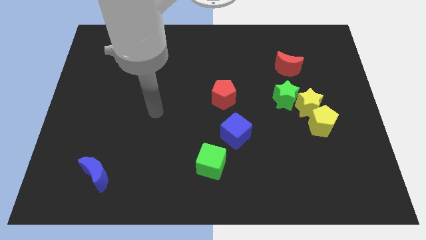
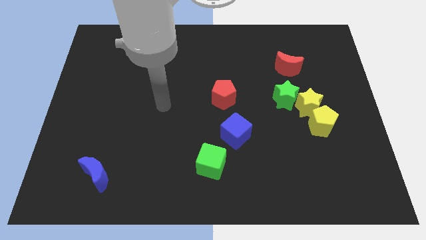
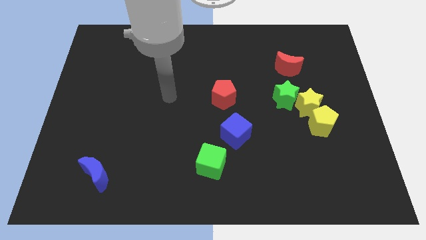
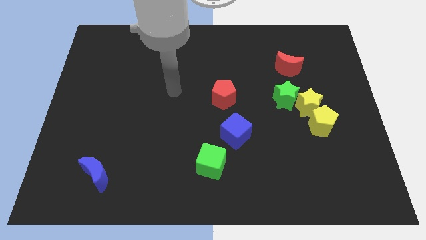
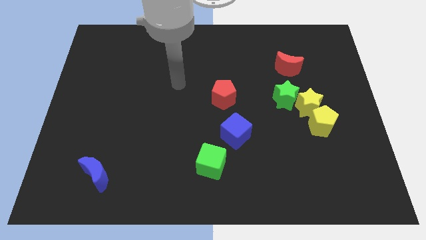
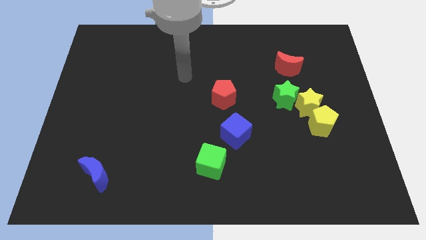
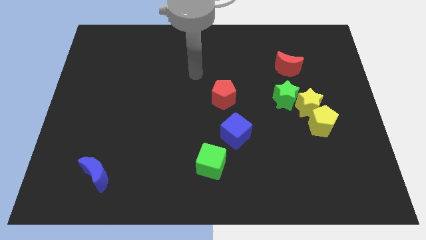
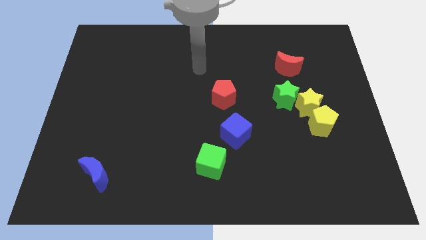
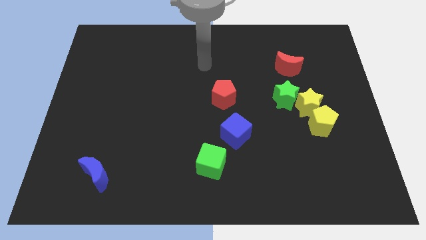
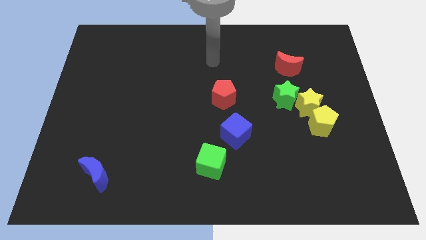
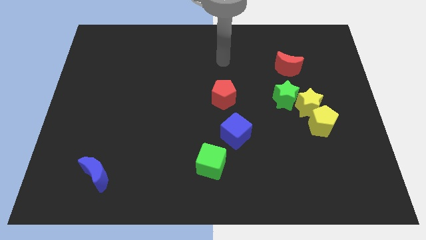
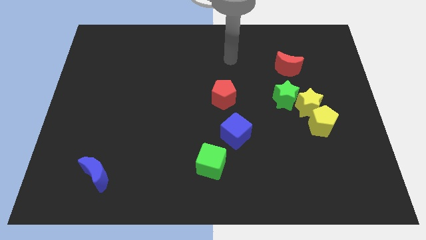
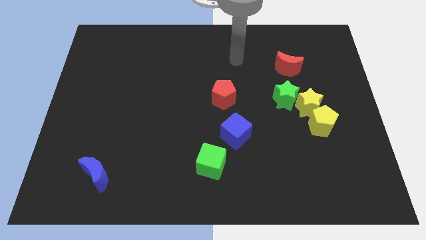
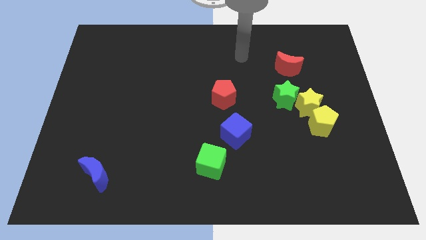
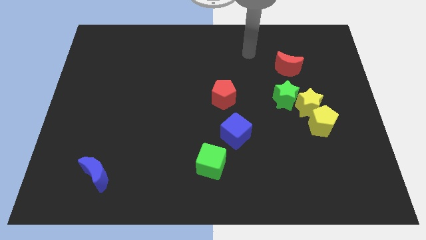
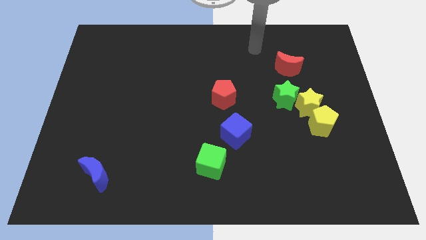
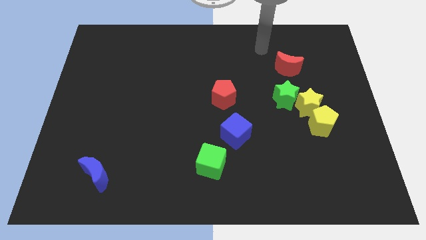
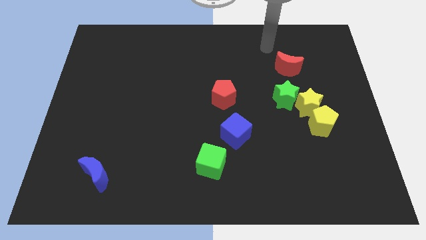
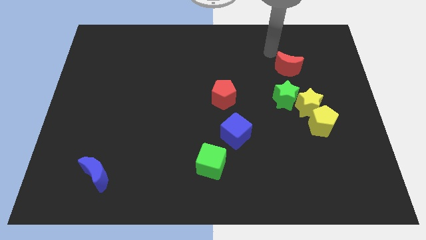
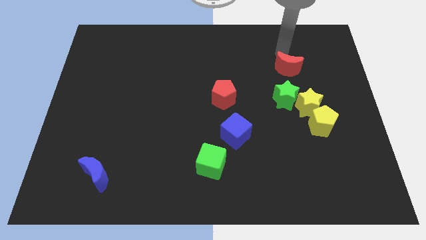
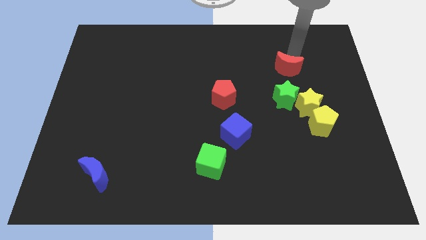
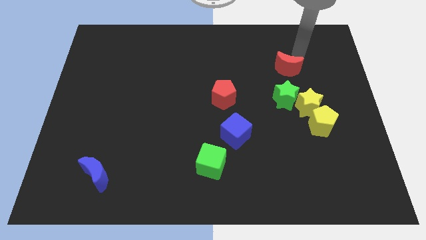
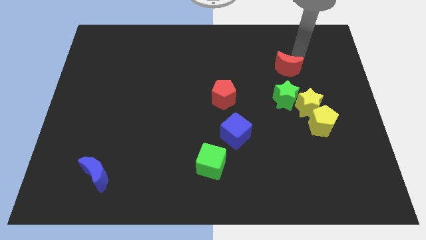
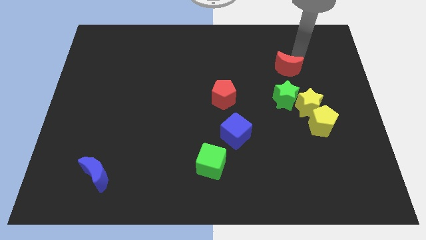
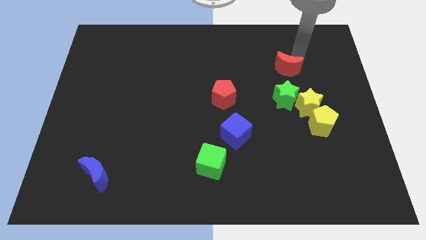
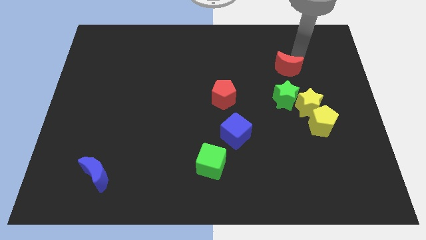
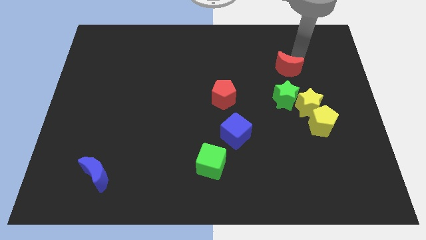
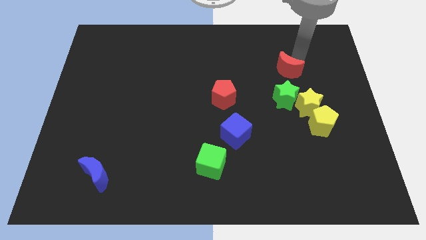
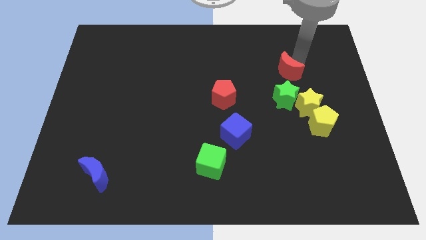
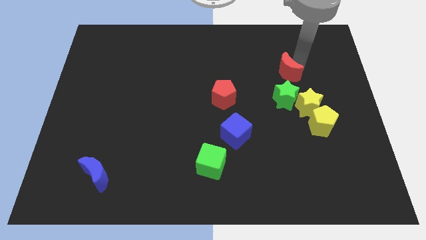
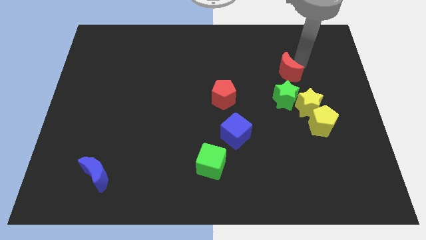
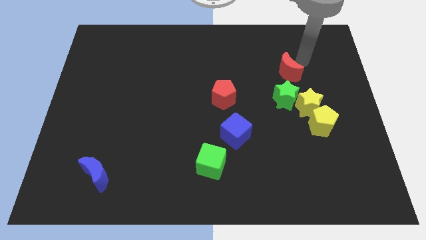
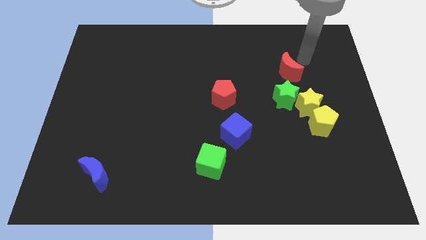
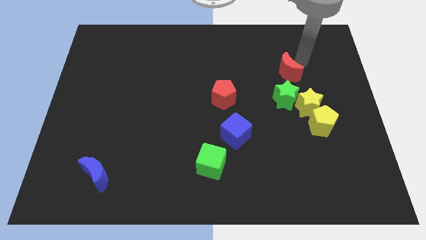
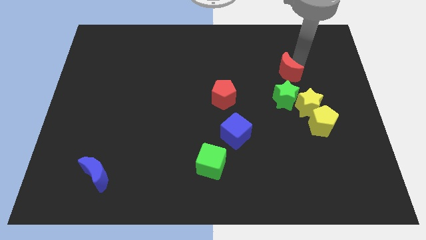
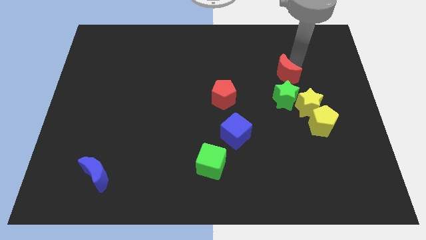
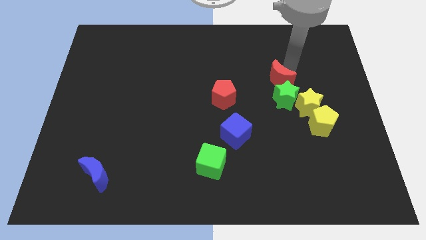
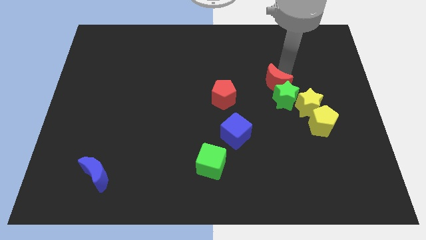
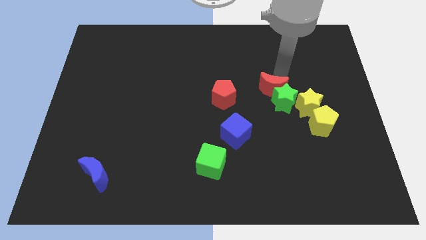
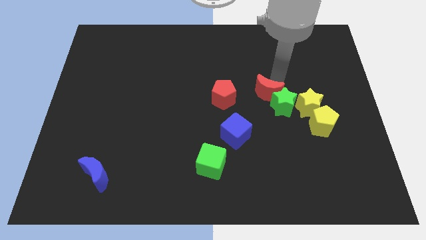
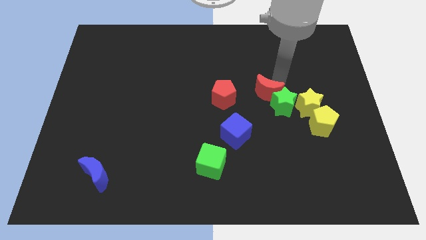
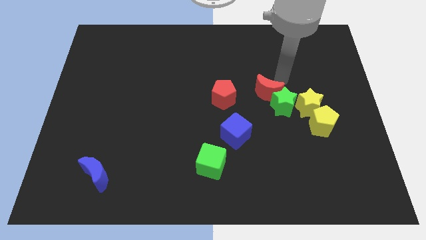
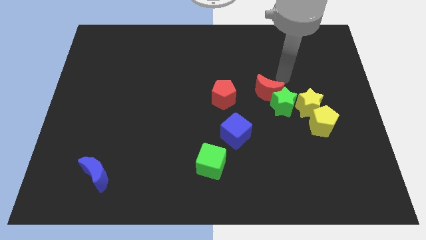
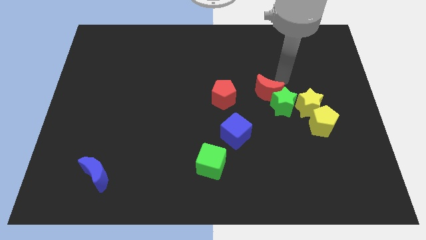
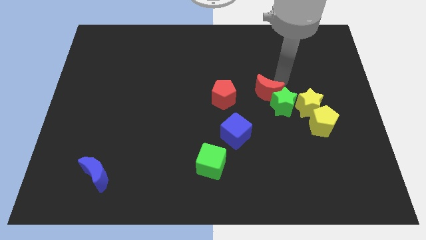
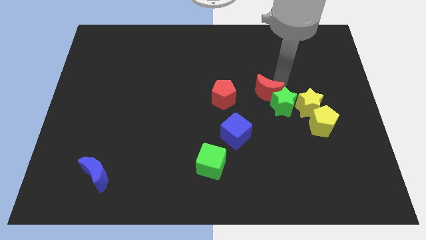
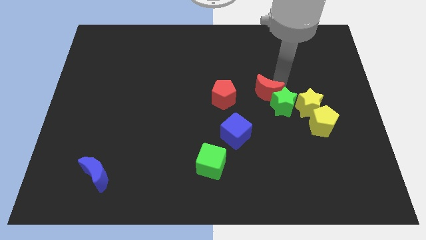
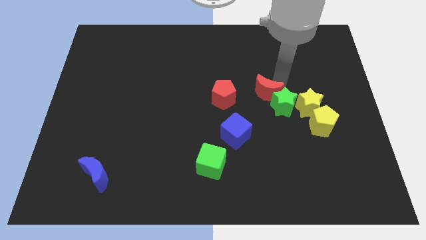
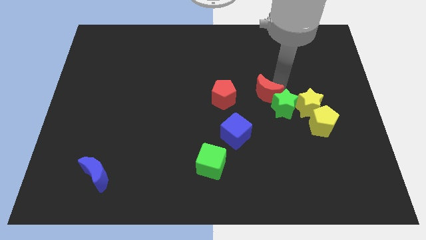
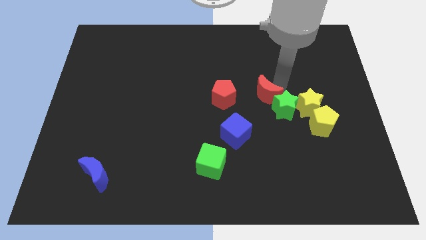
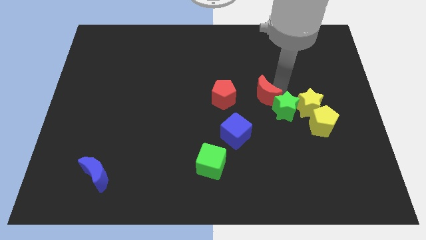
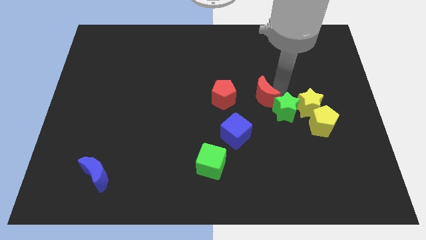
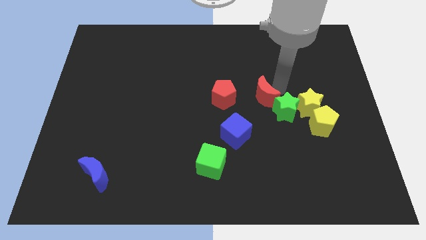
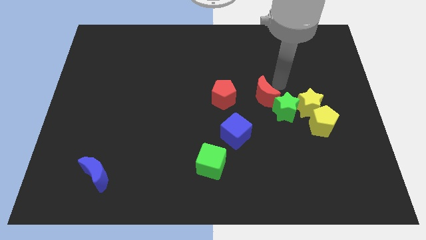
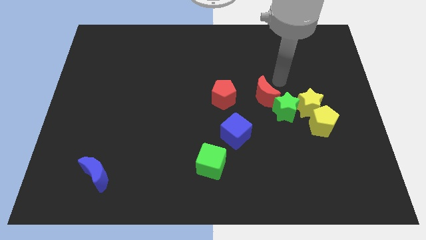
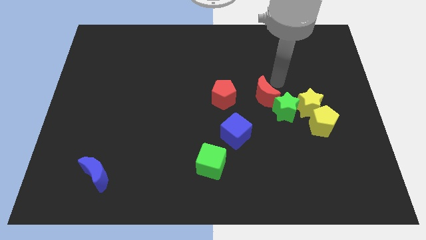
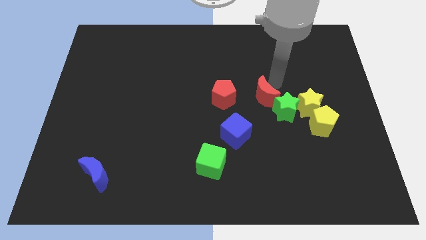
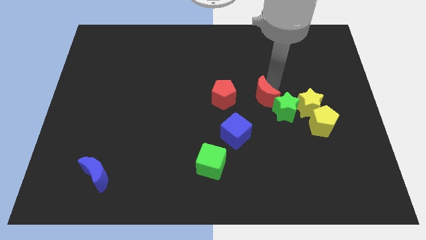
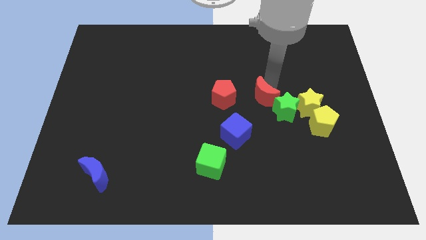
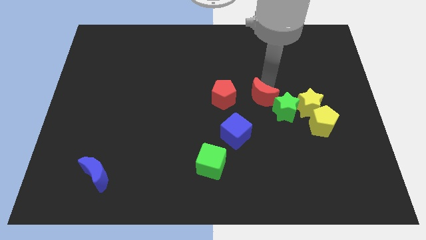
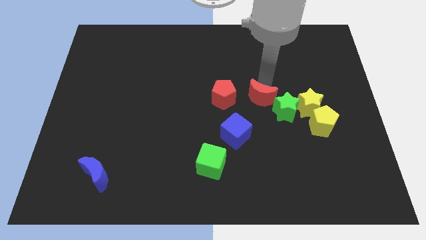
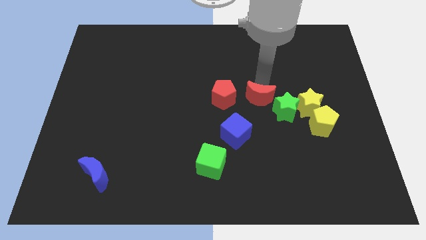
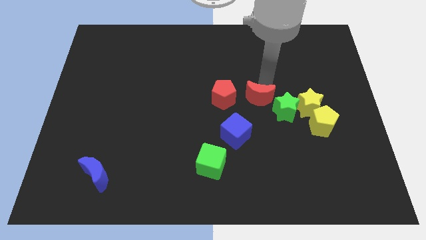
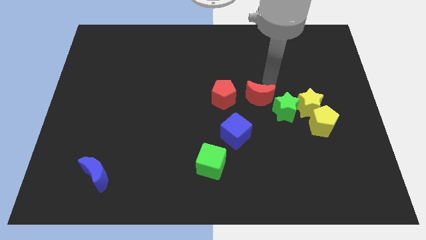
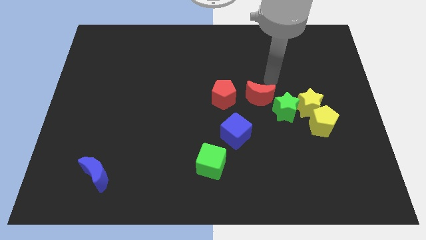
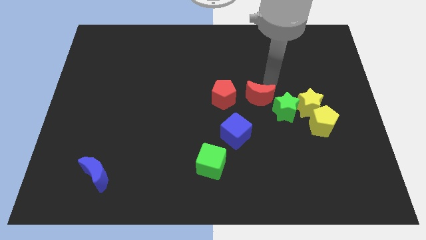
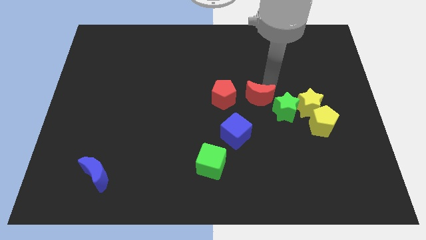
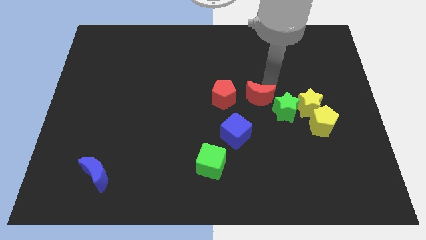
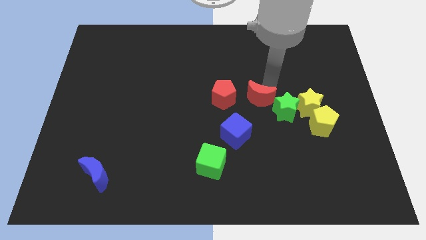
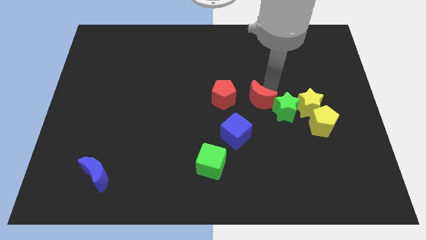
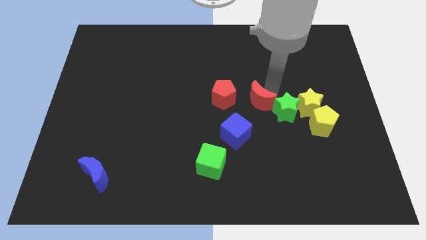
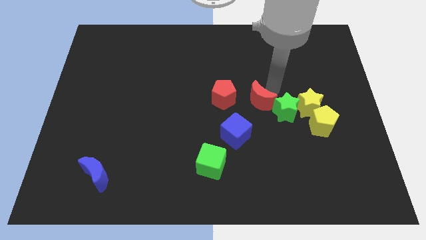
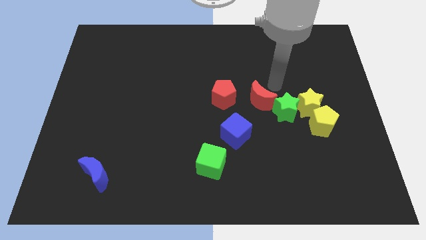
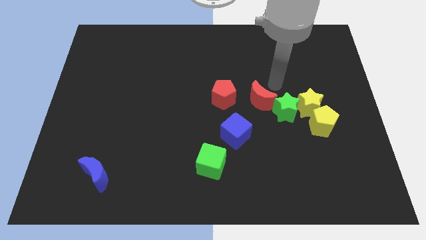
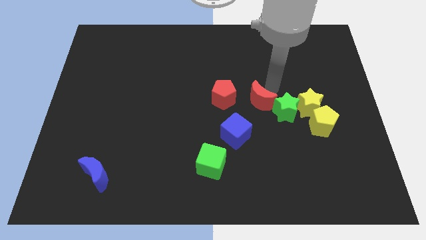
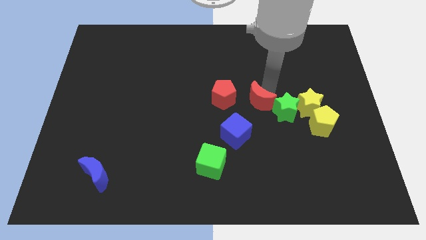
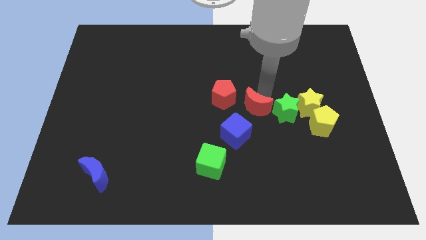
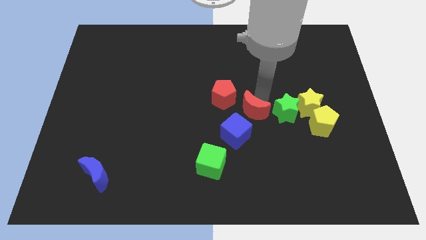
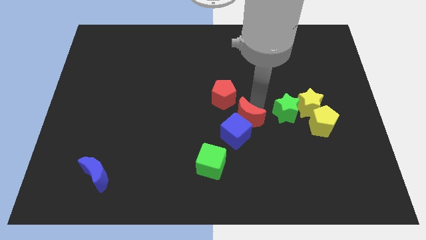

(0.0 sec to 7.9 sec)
put the red moon close to the blue cube
